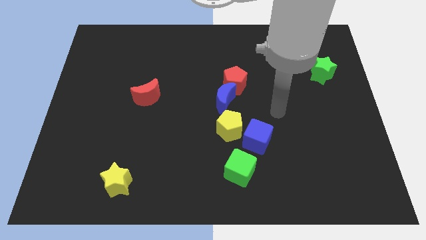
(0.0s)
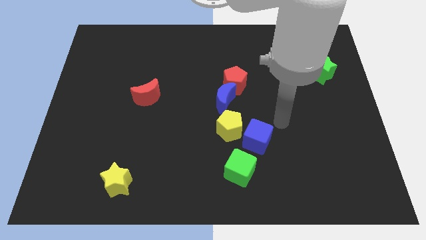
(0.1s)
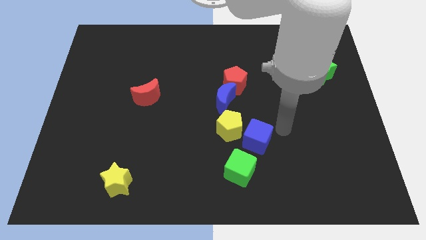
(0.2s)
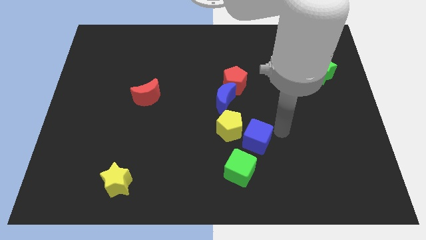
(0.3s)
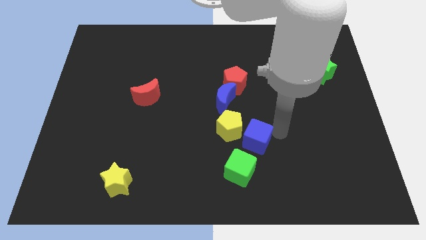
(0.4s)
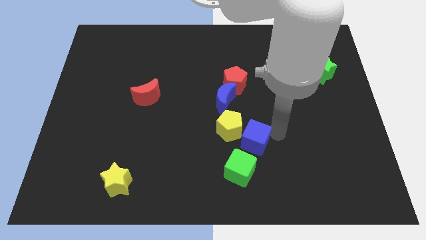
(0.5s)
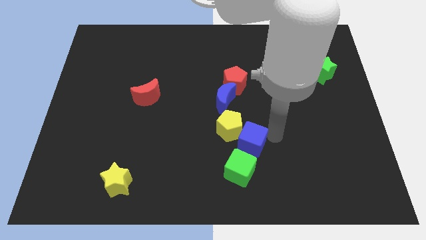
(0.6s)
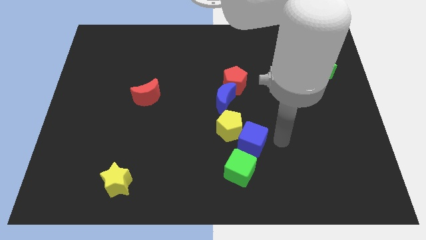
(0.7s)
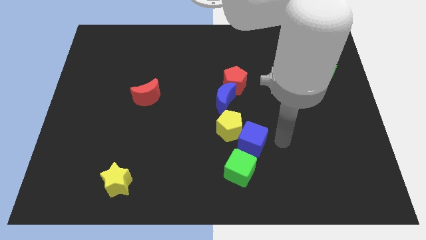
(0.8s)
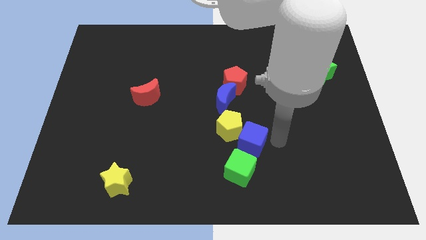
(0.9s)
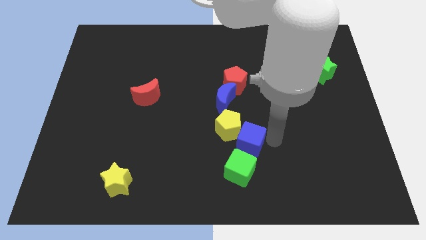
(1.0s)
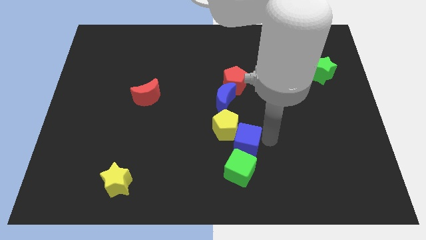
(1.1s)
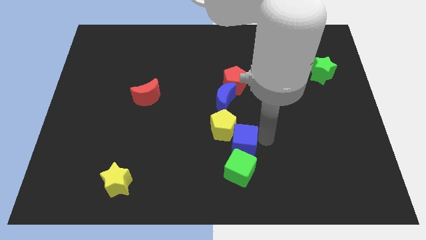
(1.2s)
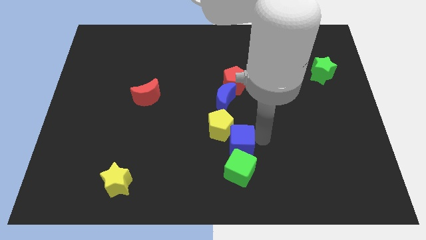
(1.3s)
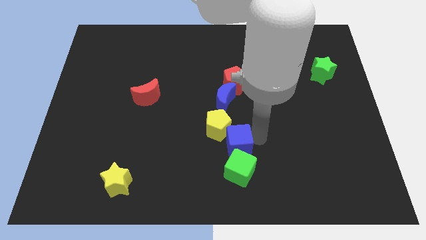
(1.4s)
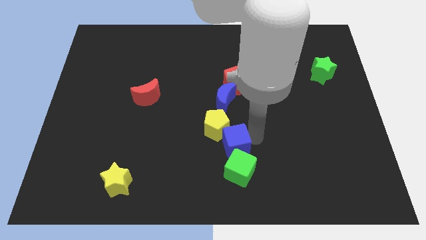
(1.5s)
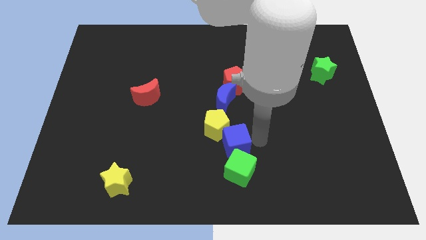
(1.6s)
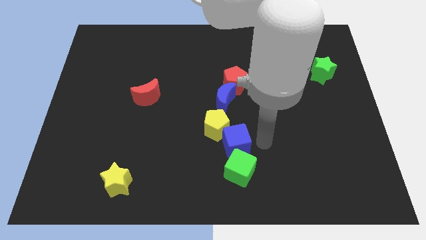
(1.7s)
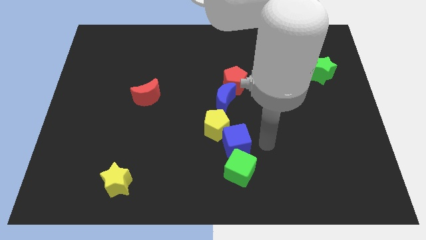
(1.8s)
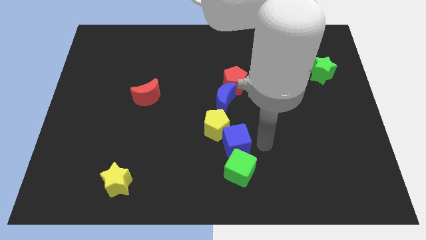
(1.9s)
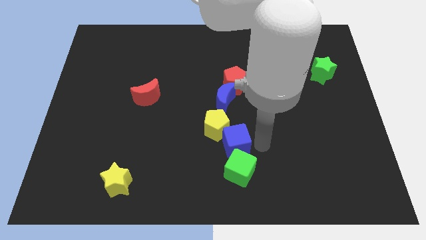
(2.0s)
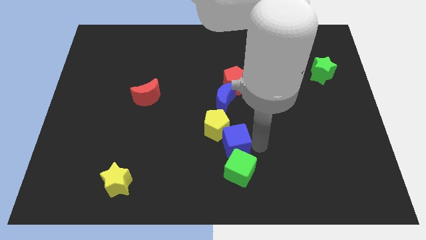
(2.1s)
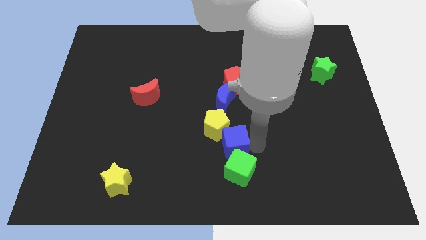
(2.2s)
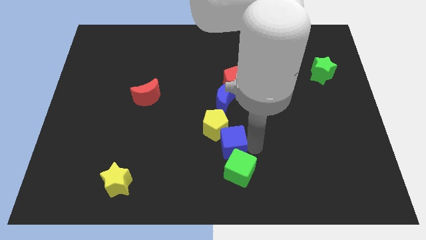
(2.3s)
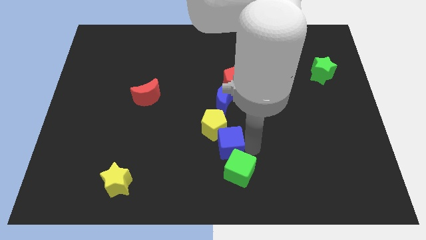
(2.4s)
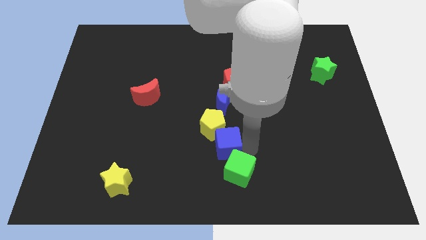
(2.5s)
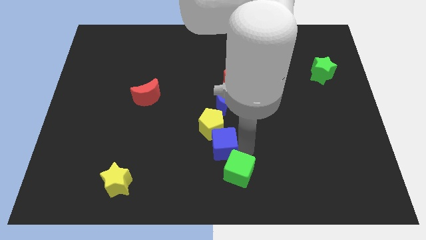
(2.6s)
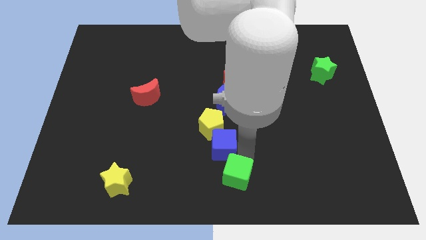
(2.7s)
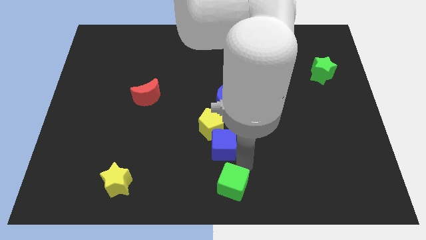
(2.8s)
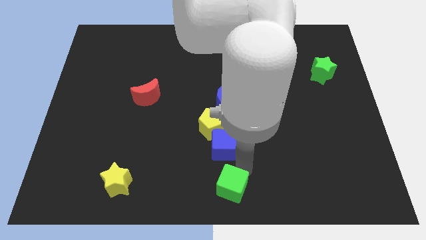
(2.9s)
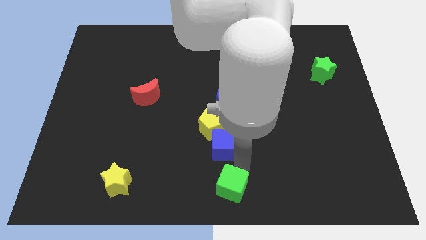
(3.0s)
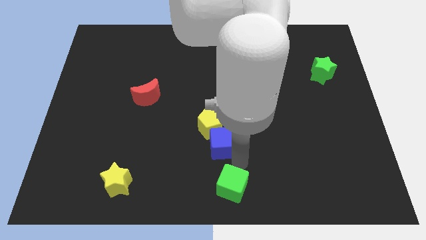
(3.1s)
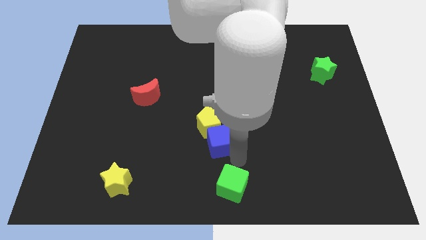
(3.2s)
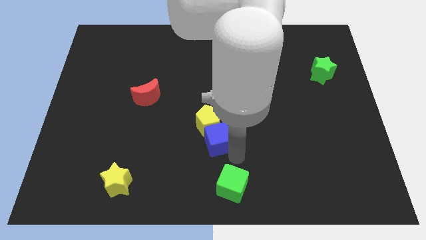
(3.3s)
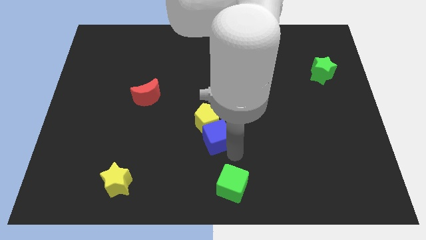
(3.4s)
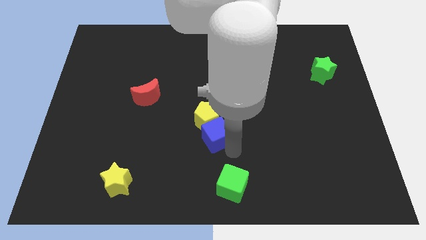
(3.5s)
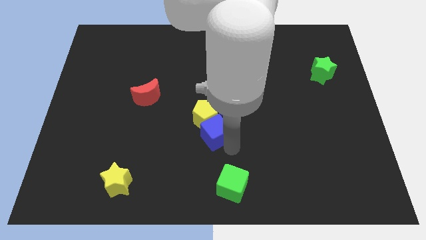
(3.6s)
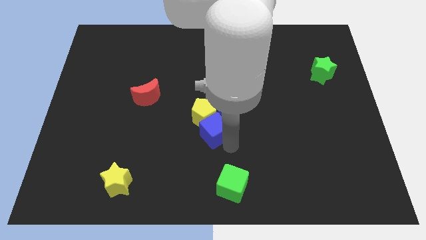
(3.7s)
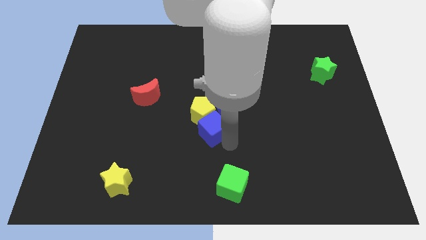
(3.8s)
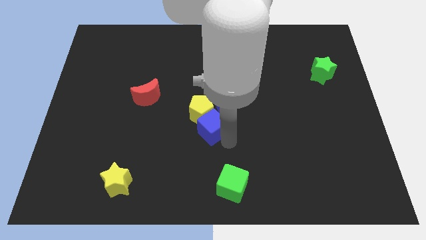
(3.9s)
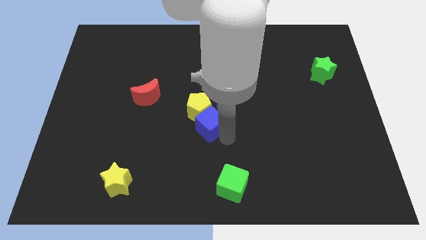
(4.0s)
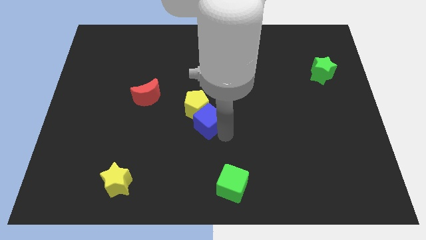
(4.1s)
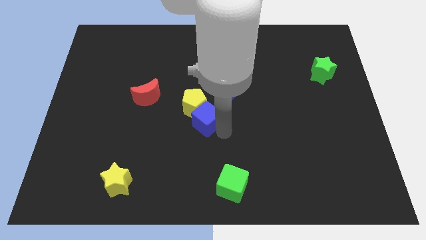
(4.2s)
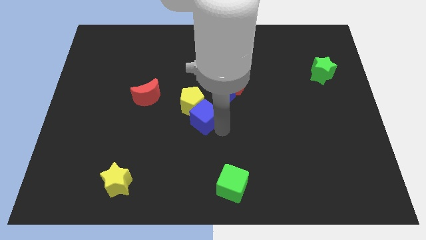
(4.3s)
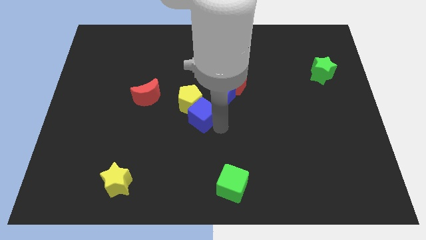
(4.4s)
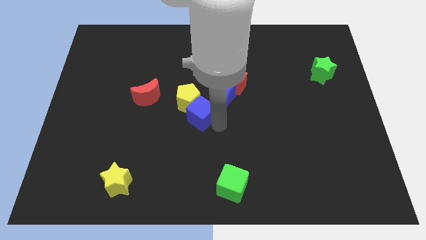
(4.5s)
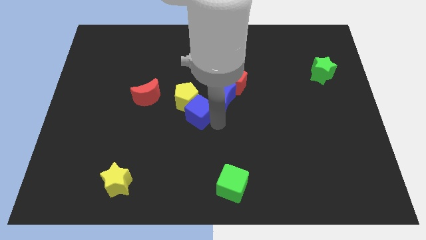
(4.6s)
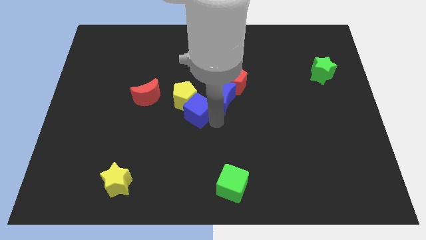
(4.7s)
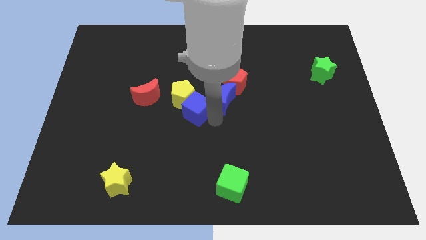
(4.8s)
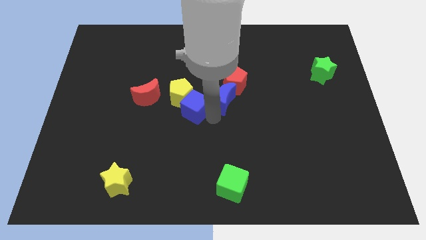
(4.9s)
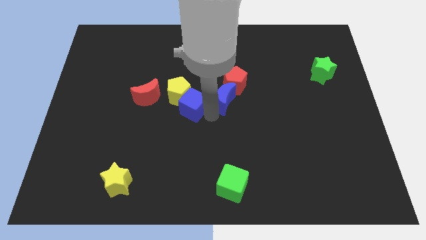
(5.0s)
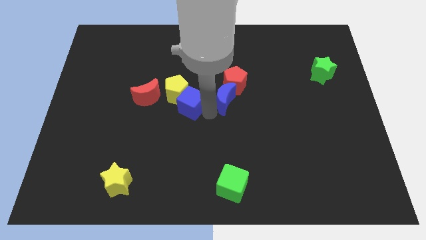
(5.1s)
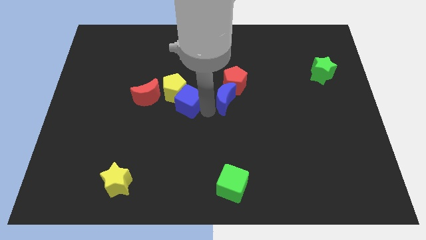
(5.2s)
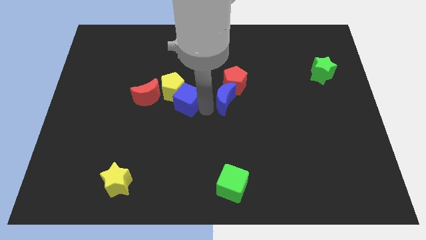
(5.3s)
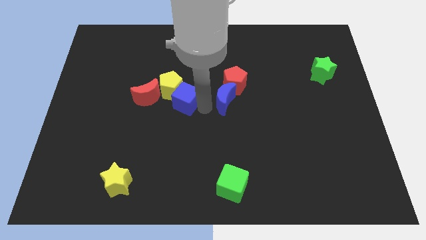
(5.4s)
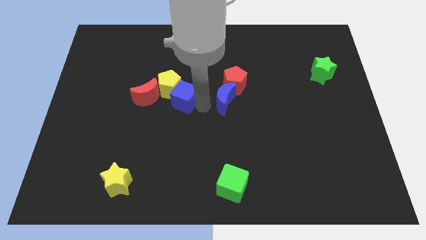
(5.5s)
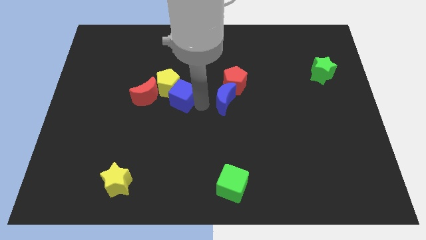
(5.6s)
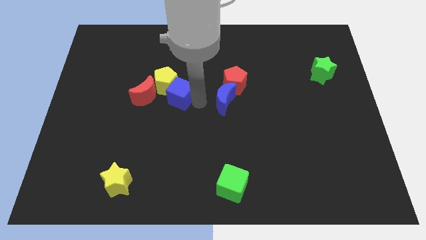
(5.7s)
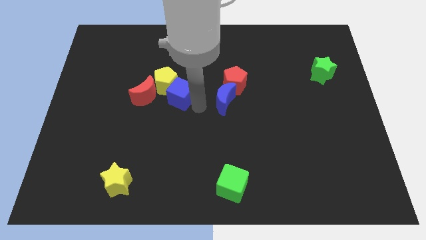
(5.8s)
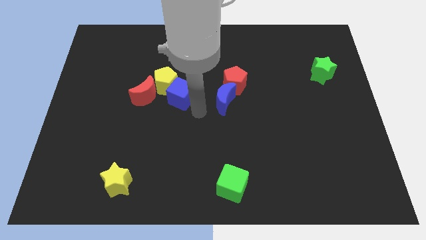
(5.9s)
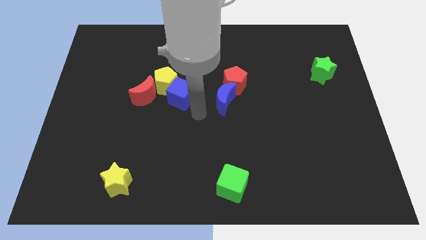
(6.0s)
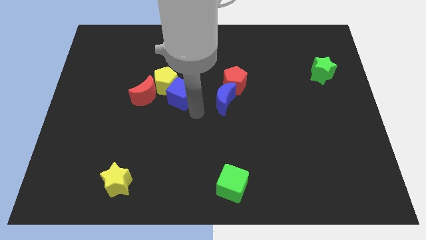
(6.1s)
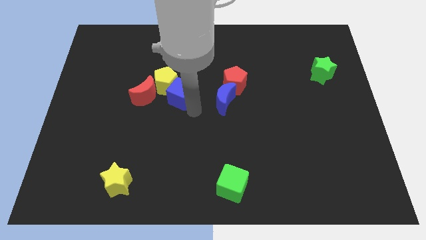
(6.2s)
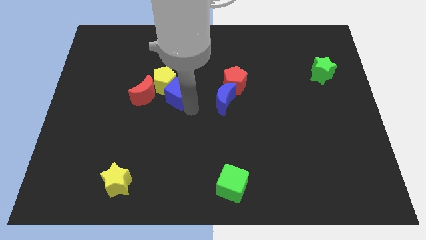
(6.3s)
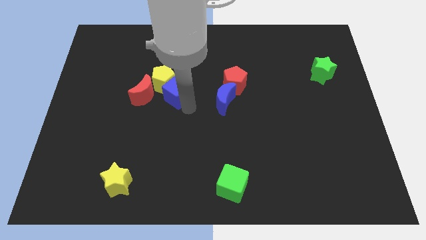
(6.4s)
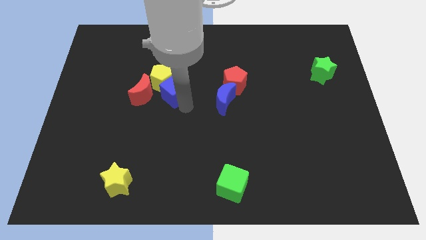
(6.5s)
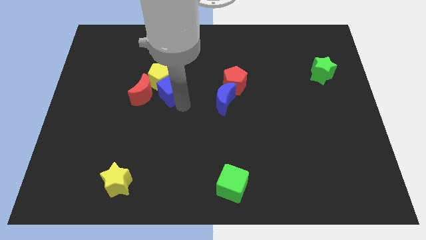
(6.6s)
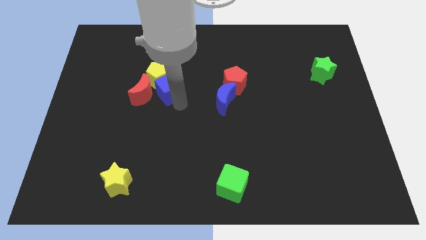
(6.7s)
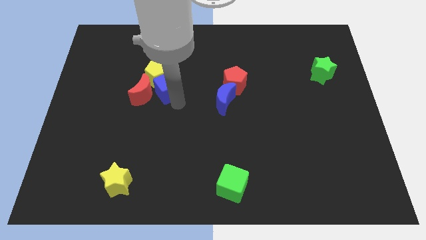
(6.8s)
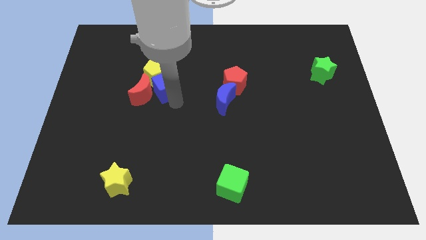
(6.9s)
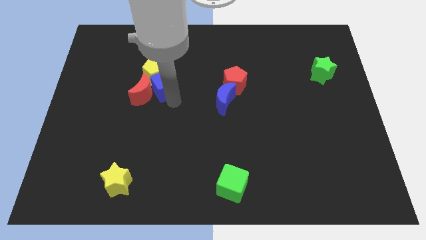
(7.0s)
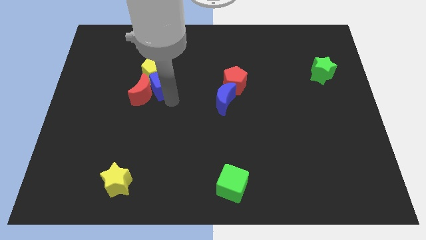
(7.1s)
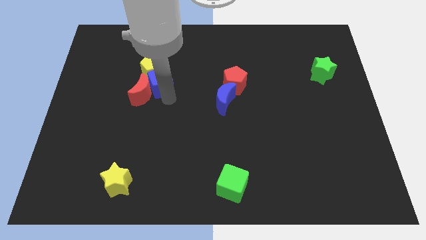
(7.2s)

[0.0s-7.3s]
put the blue cube above the red moon
